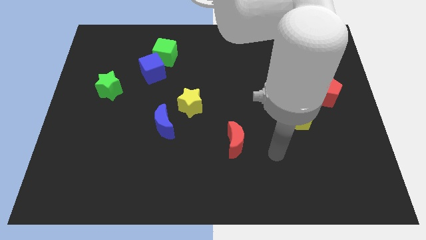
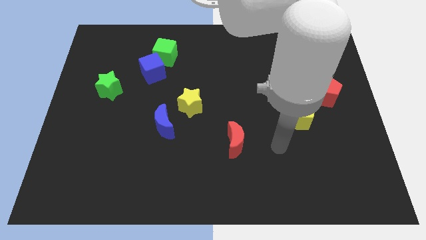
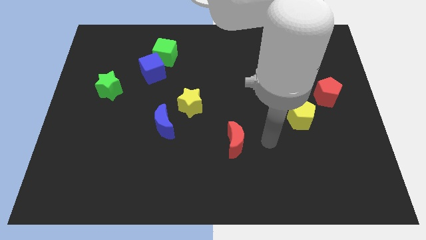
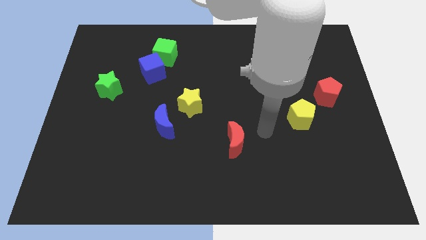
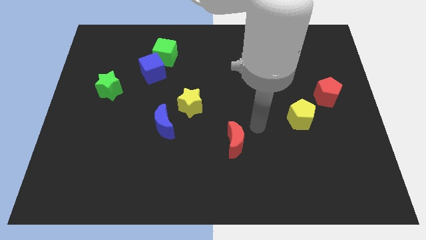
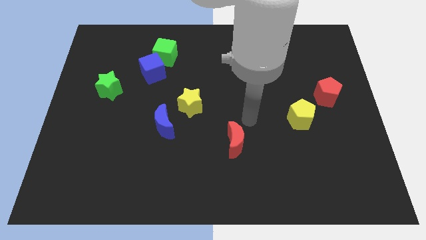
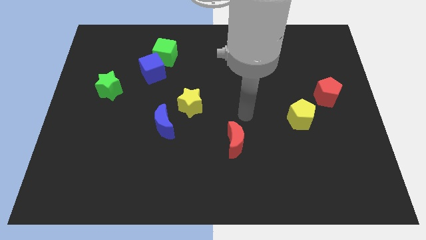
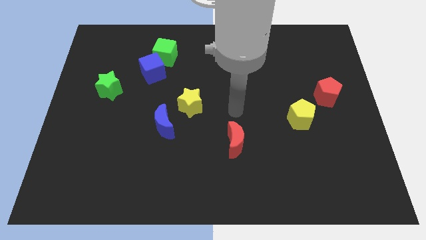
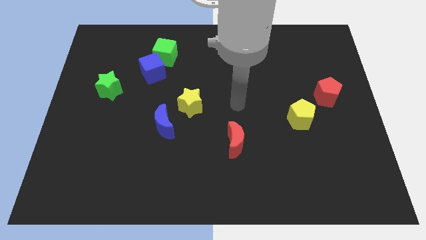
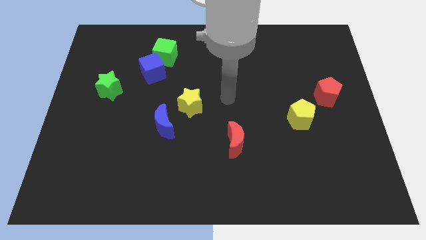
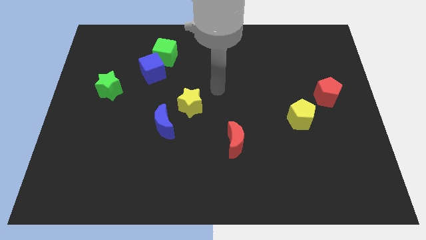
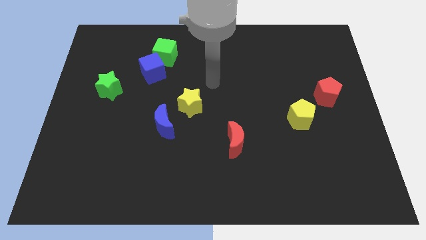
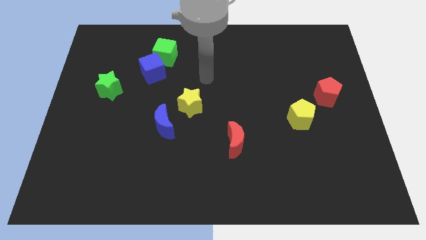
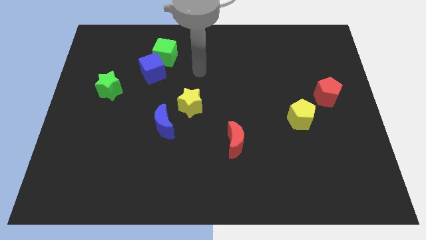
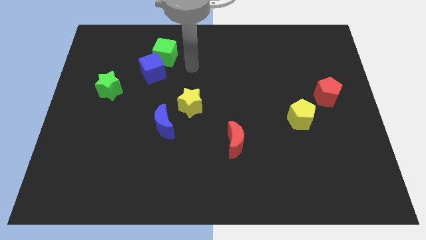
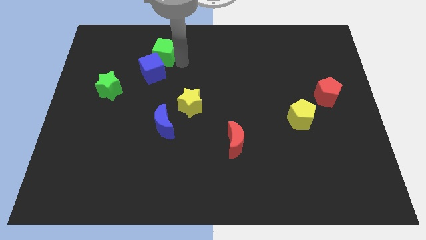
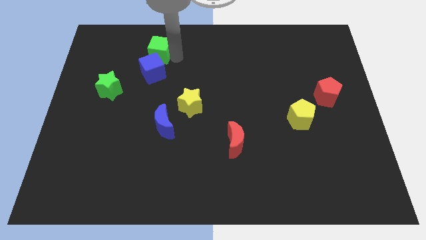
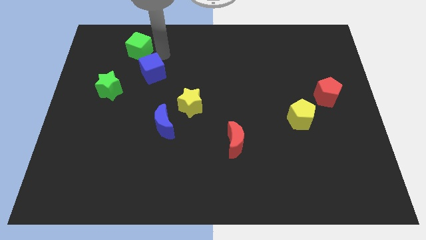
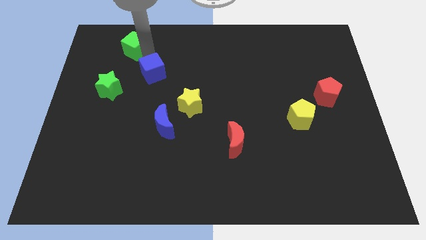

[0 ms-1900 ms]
move the blue cube away from the green cube

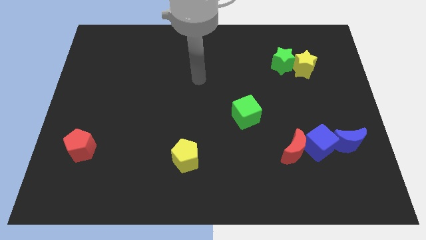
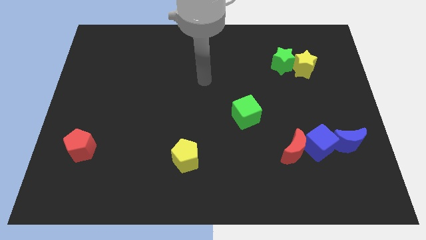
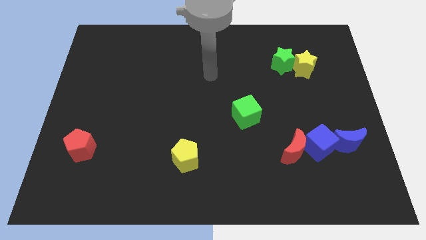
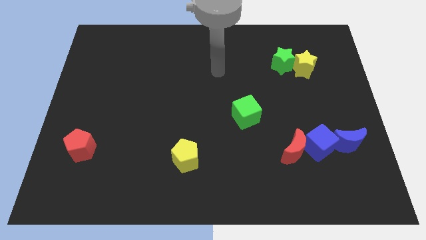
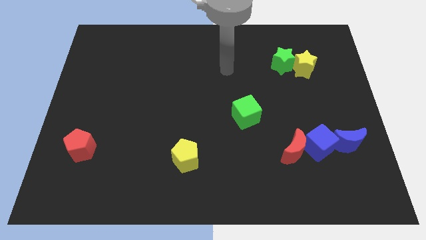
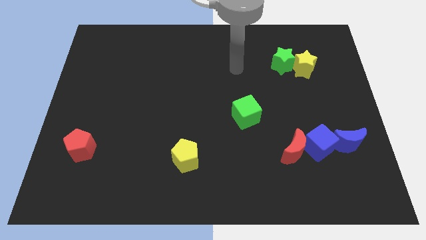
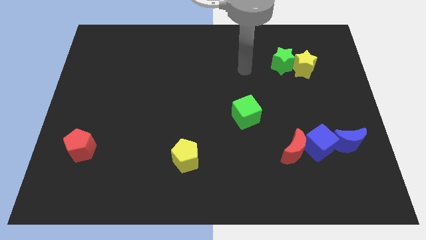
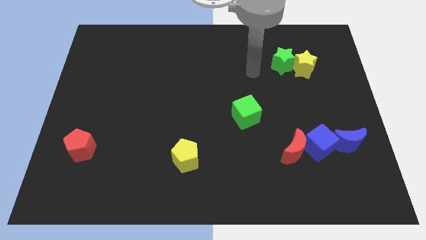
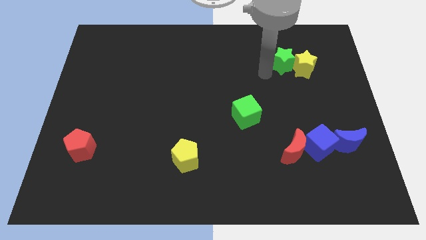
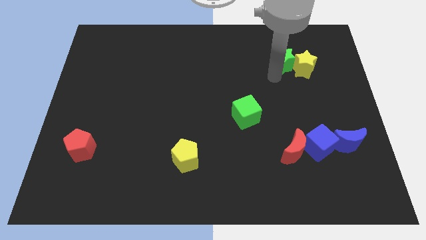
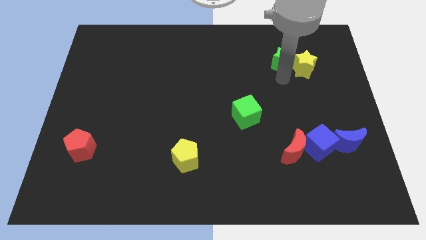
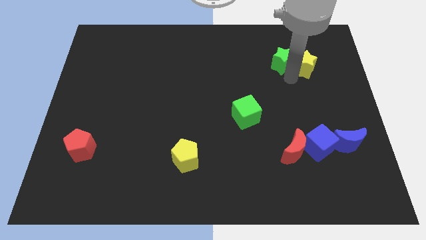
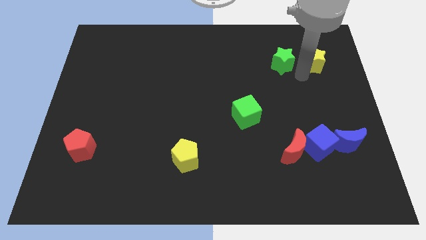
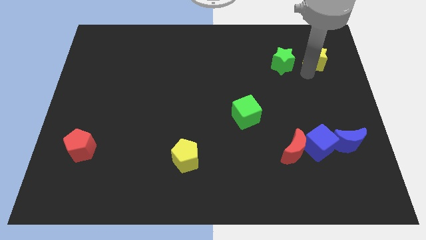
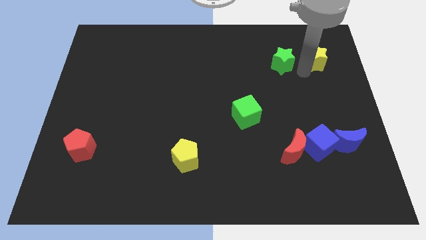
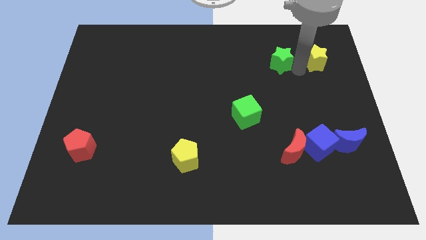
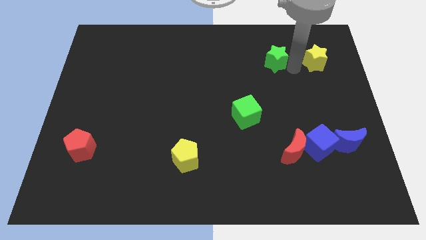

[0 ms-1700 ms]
move the green star away from the yellow star

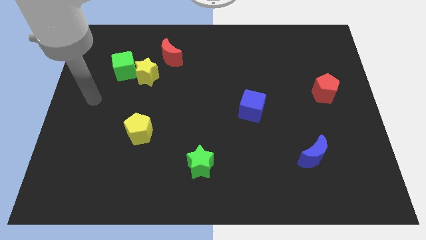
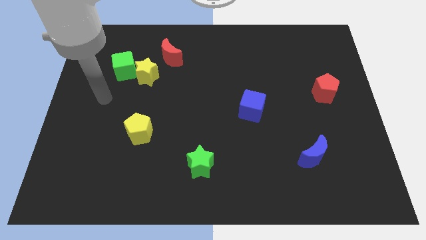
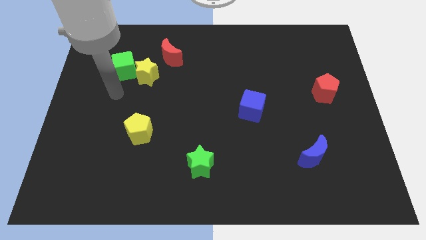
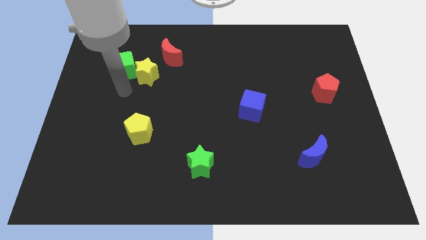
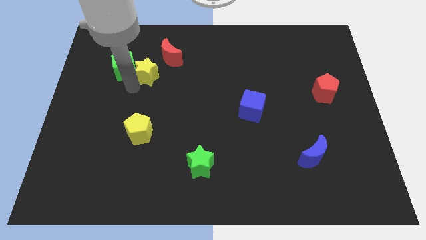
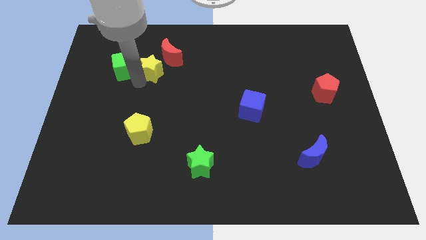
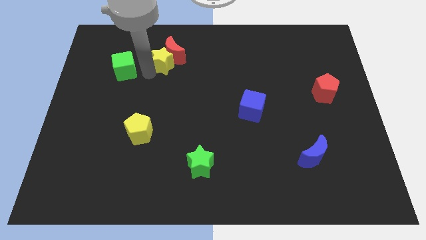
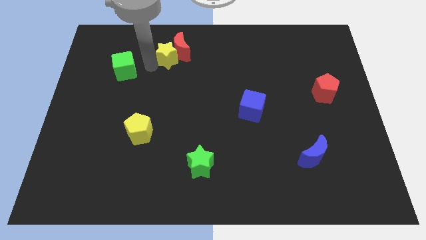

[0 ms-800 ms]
move the green cube away from the yellow star

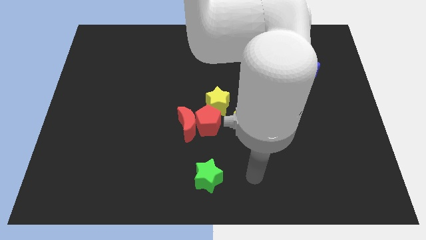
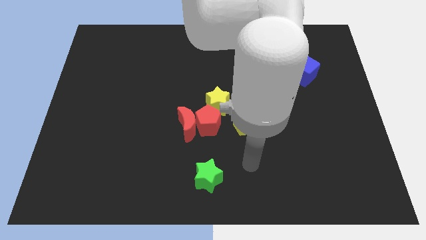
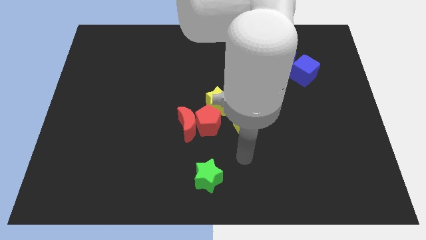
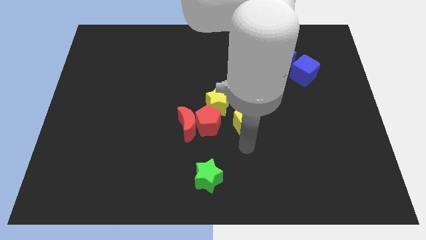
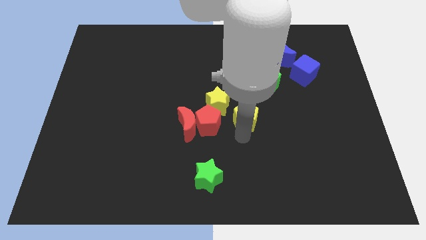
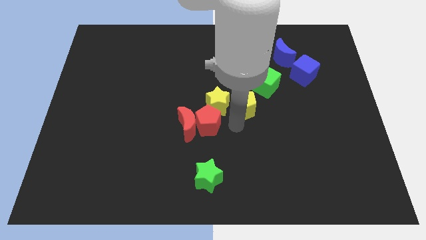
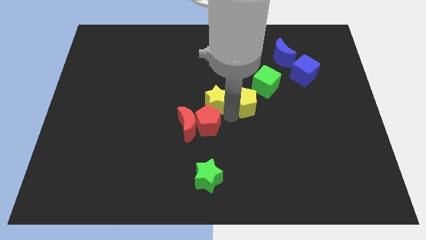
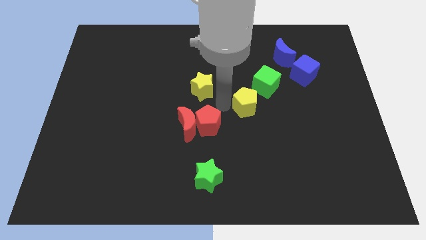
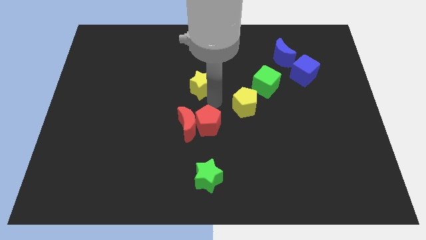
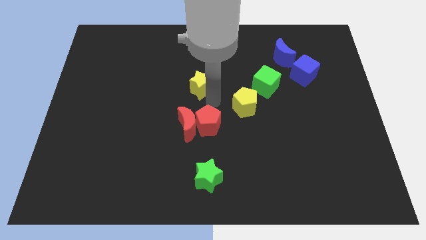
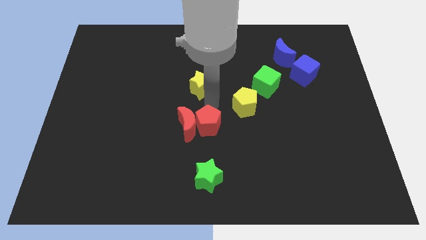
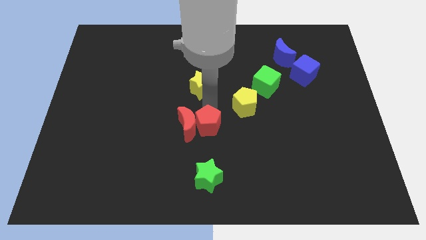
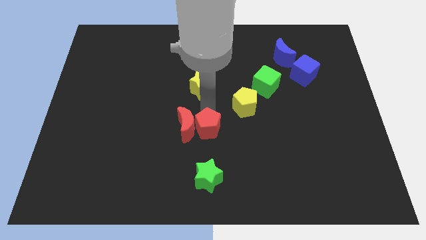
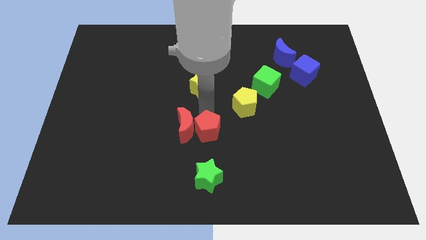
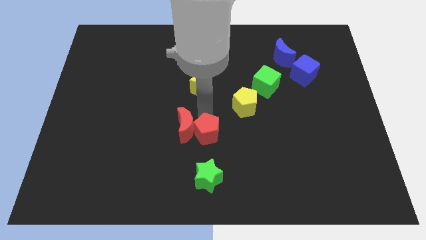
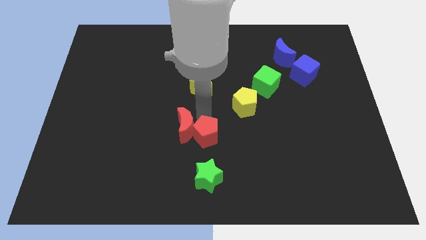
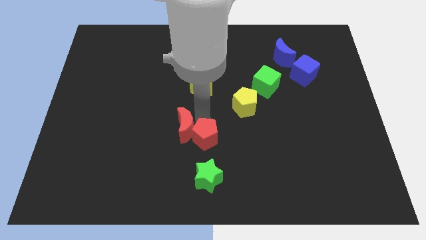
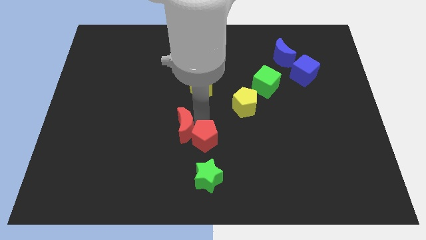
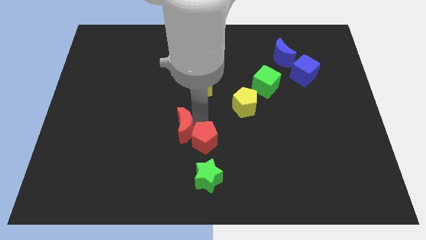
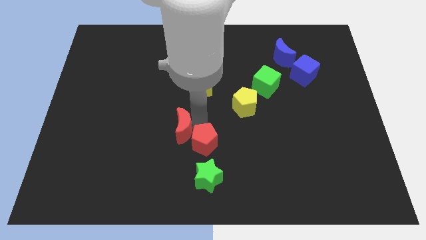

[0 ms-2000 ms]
separate the red pentagon from the red moon, yellow star, and yellow pentagon

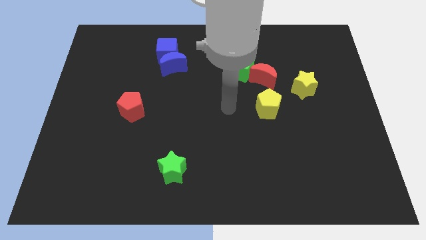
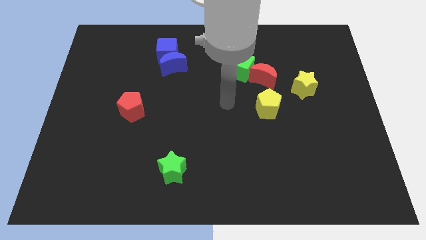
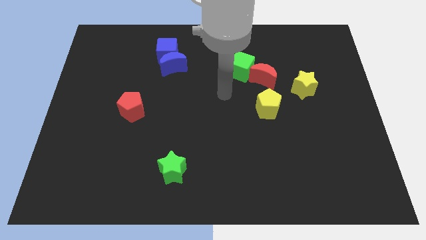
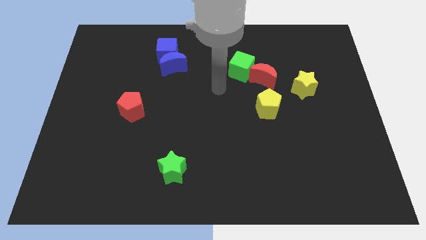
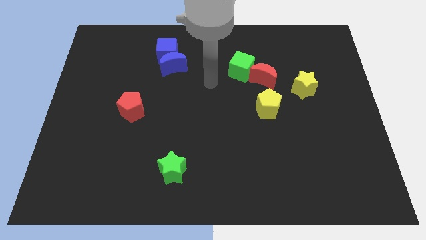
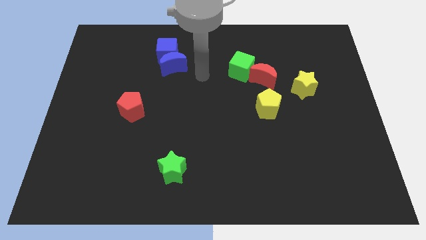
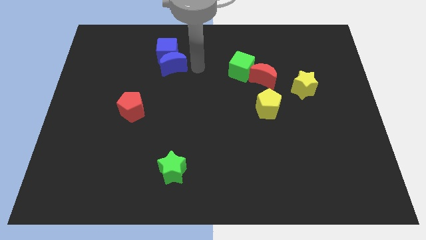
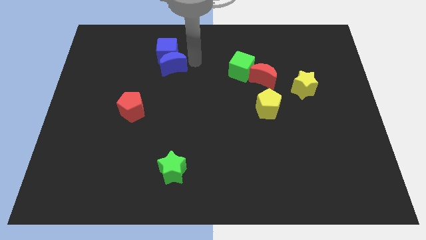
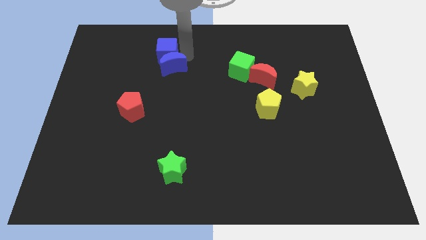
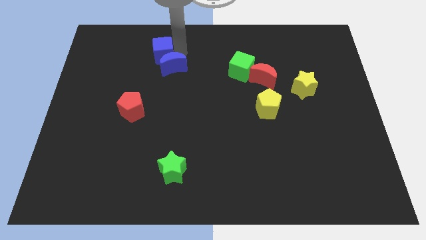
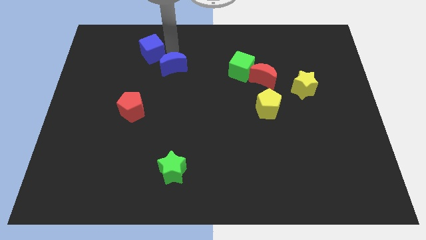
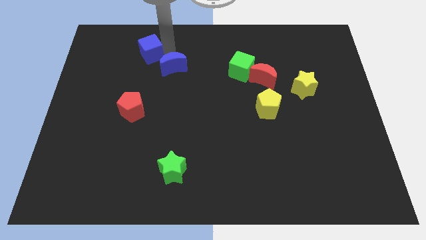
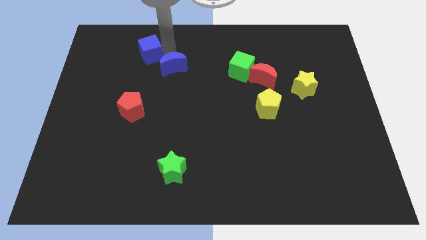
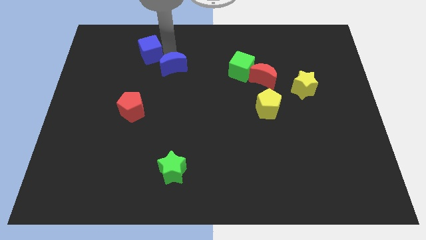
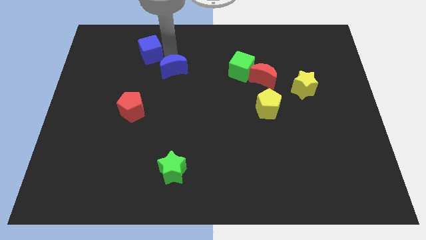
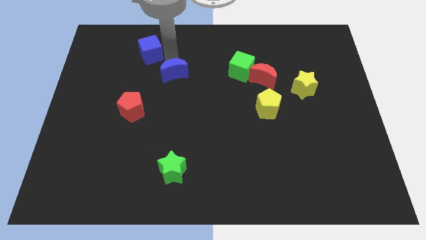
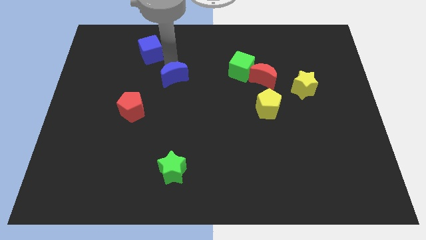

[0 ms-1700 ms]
pull the blue moon apart from the blue cube

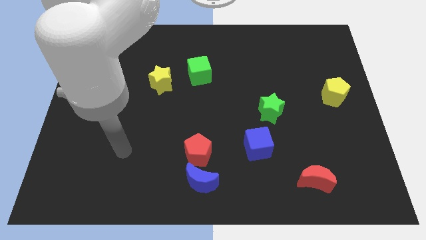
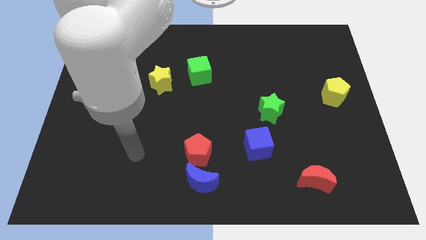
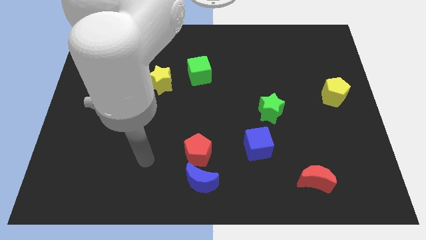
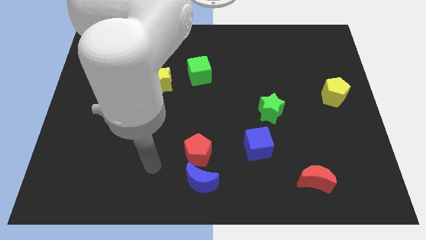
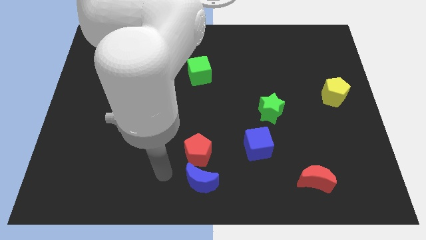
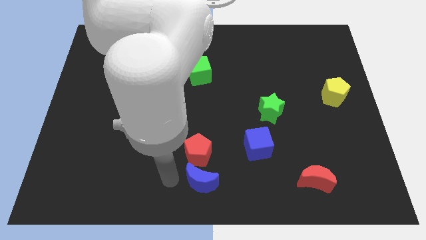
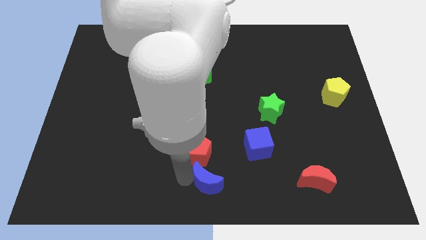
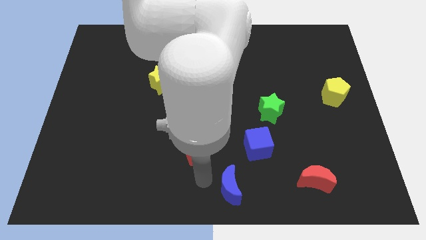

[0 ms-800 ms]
pull the red pentagon apart from the blue moon

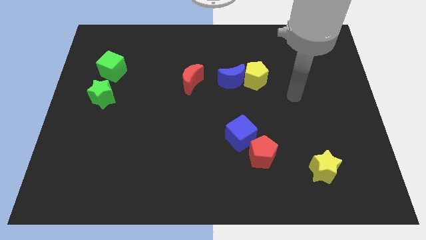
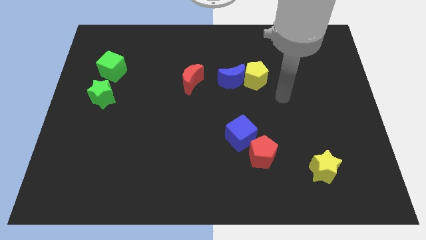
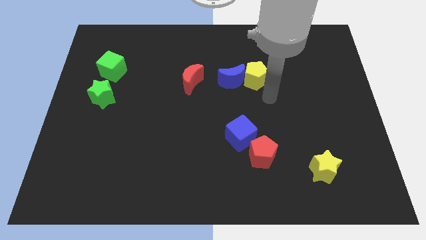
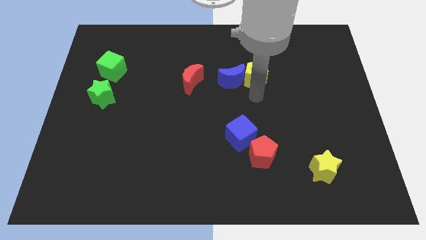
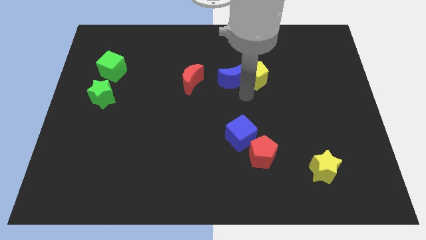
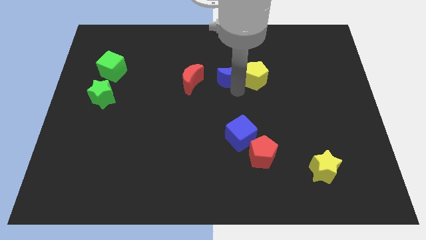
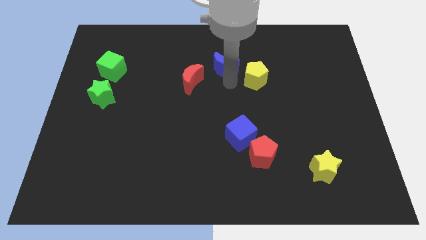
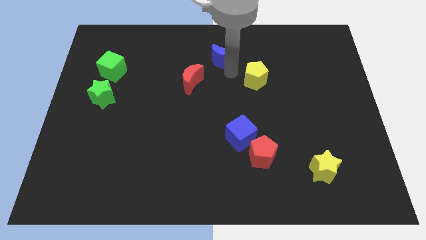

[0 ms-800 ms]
separate the yellow pentagon from the blue moon
